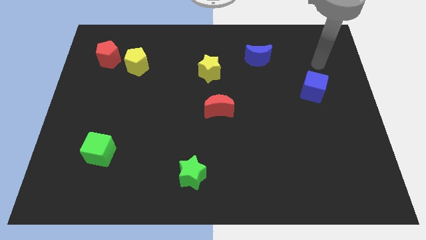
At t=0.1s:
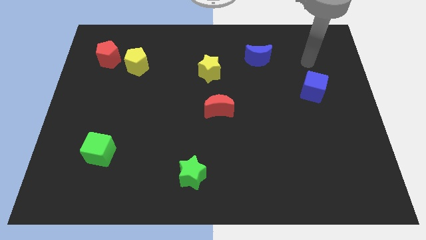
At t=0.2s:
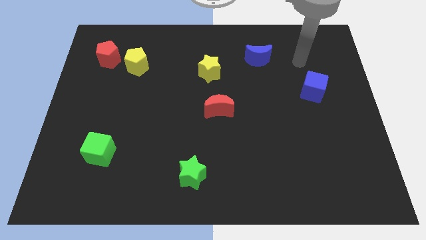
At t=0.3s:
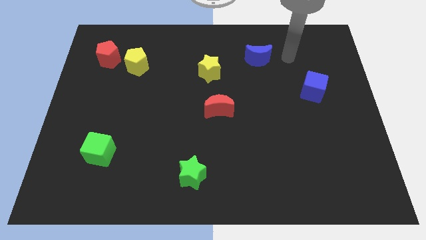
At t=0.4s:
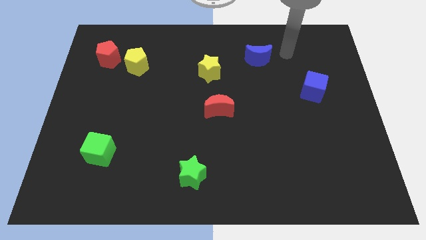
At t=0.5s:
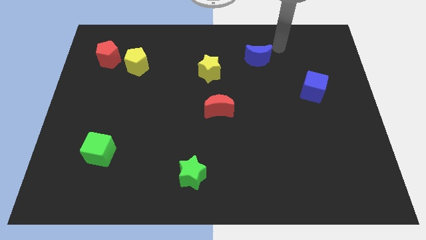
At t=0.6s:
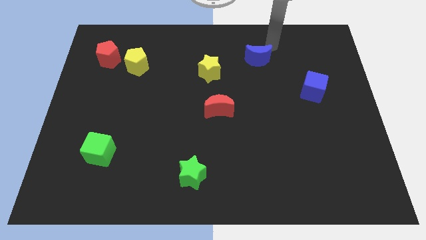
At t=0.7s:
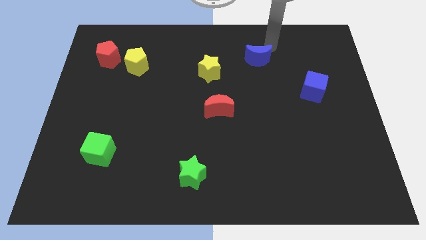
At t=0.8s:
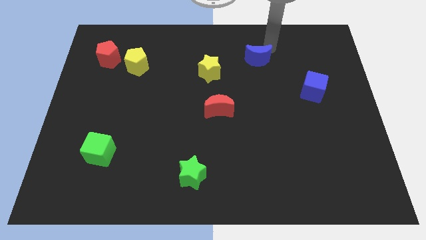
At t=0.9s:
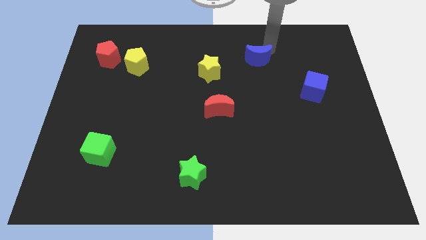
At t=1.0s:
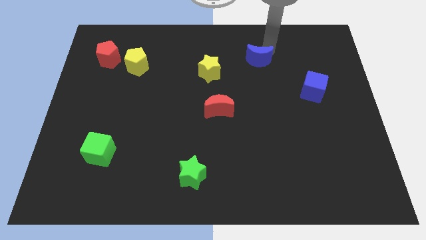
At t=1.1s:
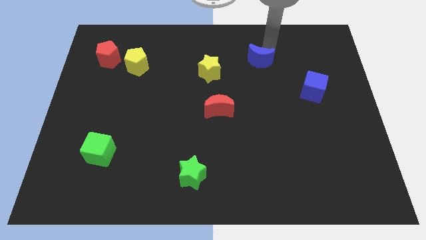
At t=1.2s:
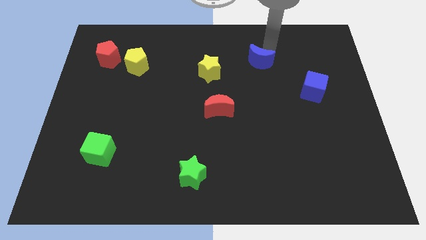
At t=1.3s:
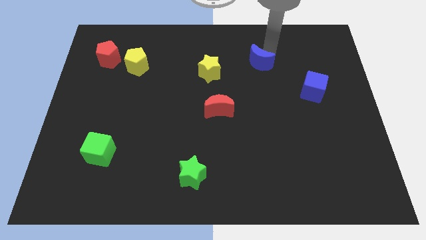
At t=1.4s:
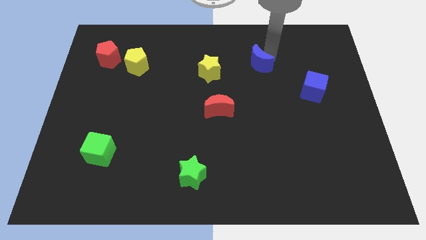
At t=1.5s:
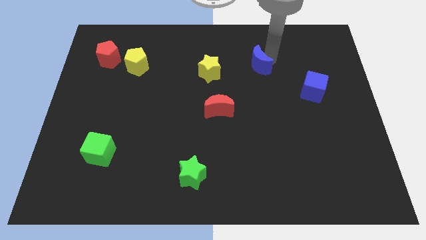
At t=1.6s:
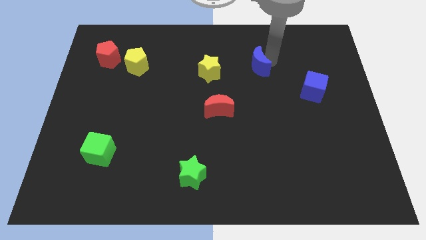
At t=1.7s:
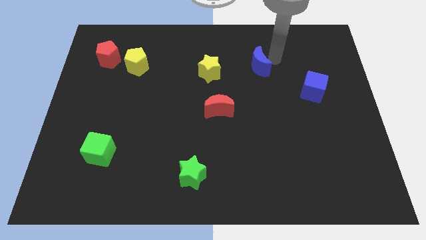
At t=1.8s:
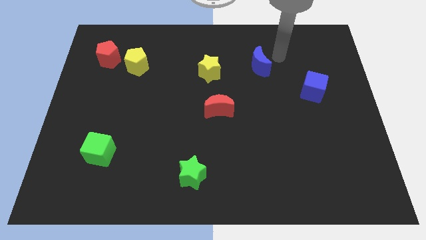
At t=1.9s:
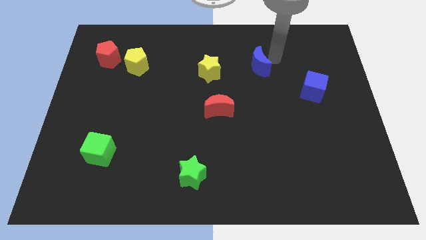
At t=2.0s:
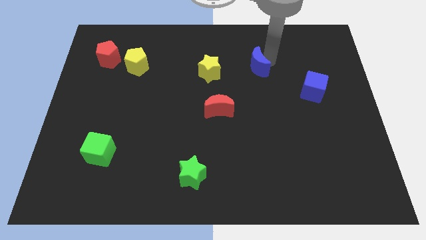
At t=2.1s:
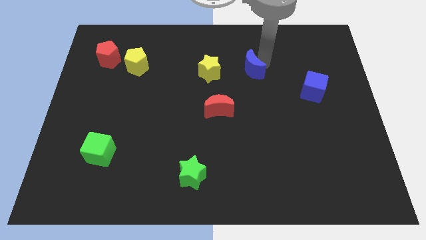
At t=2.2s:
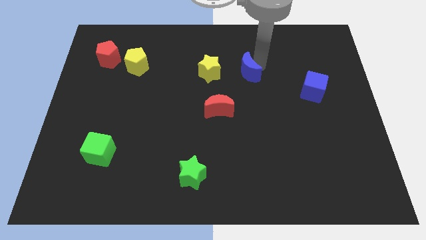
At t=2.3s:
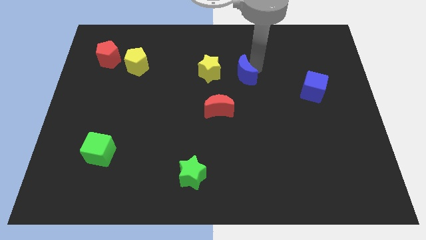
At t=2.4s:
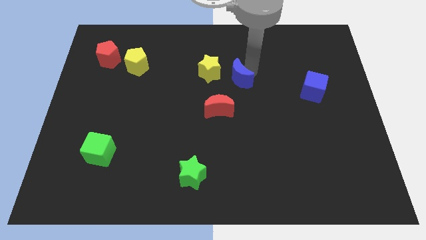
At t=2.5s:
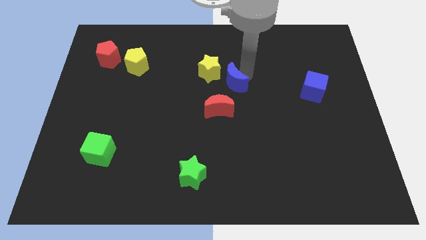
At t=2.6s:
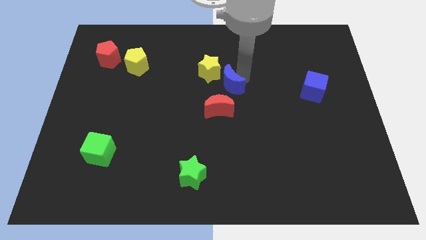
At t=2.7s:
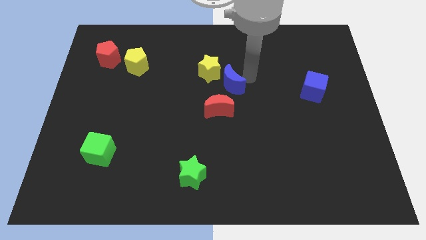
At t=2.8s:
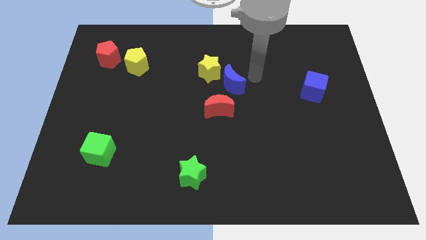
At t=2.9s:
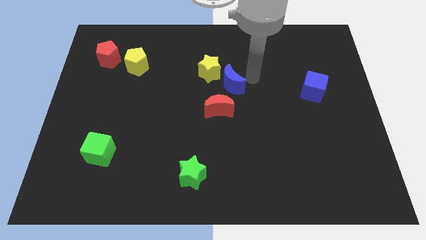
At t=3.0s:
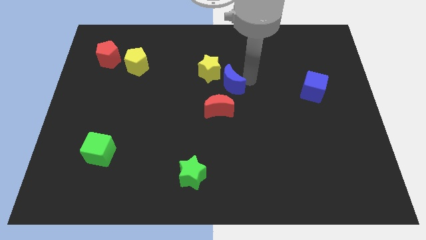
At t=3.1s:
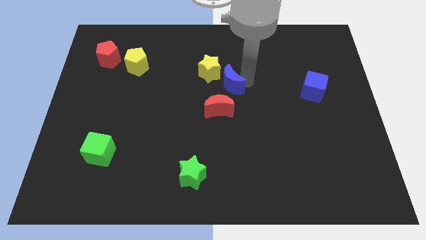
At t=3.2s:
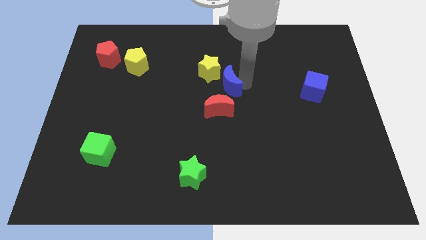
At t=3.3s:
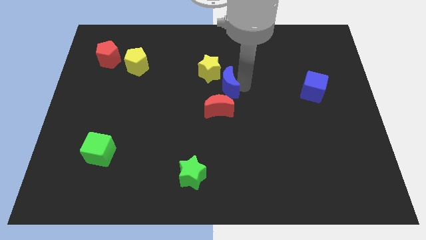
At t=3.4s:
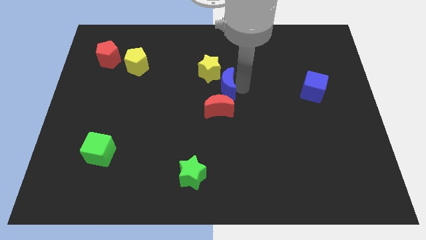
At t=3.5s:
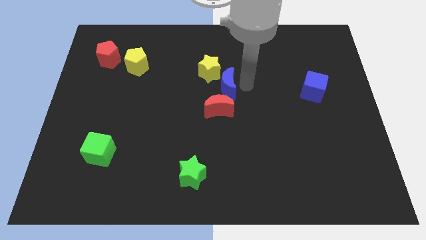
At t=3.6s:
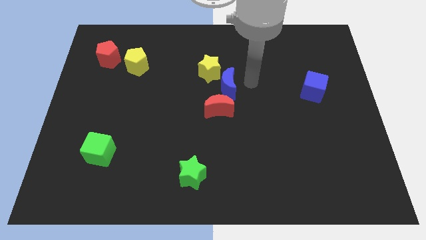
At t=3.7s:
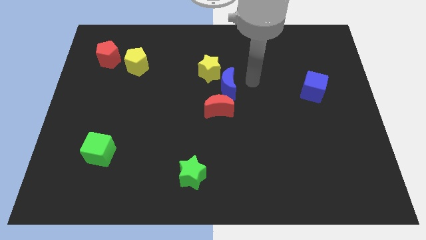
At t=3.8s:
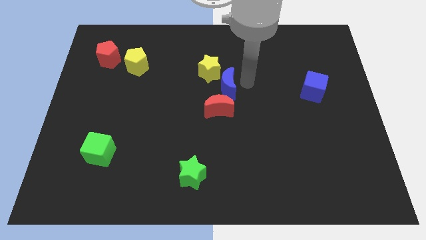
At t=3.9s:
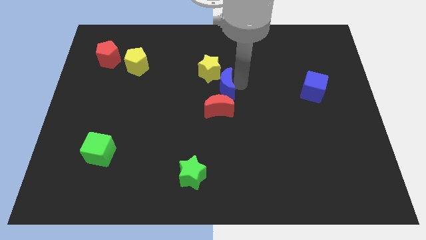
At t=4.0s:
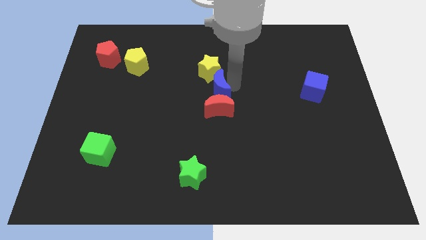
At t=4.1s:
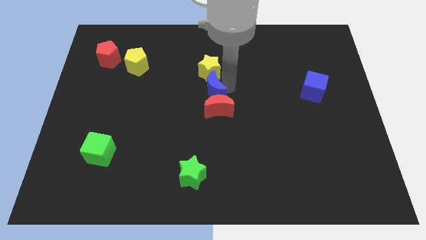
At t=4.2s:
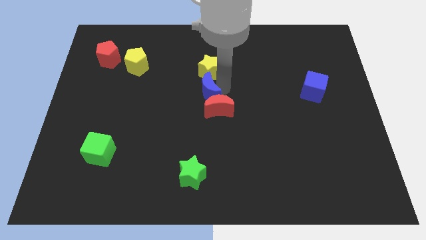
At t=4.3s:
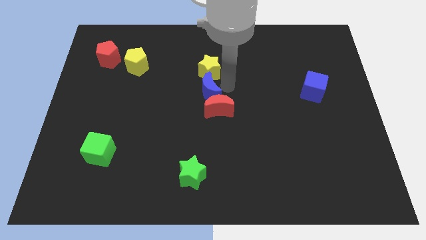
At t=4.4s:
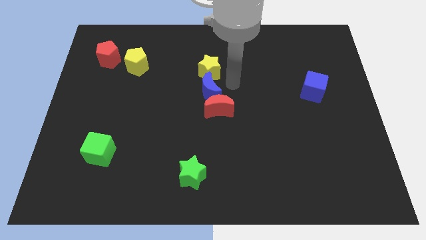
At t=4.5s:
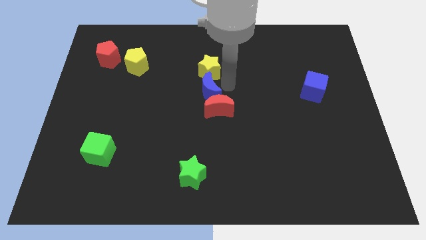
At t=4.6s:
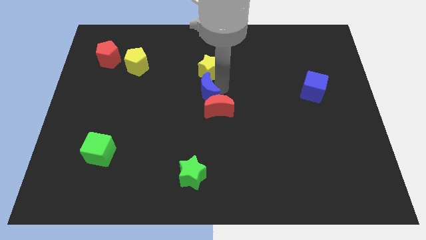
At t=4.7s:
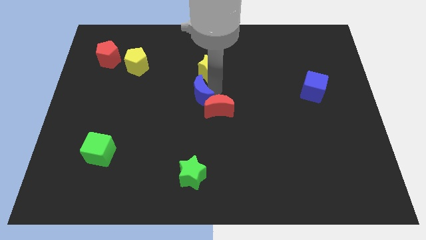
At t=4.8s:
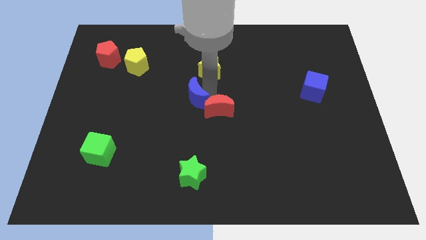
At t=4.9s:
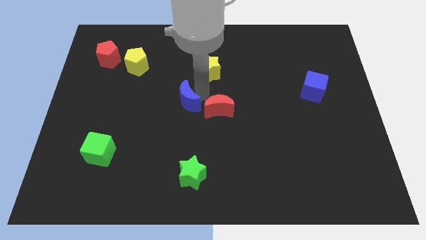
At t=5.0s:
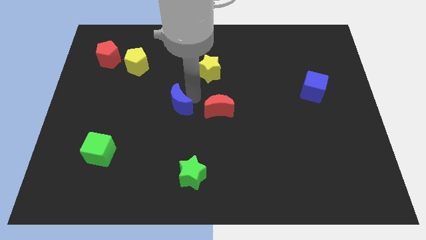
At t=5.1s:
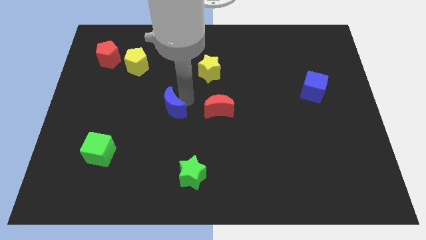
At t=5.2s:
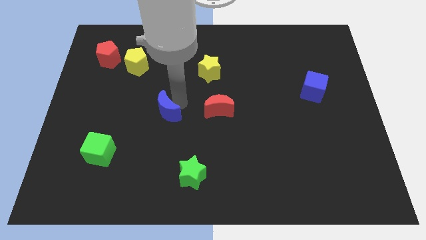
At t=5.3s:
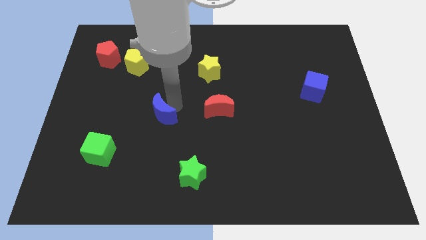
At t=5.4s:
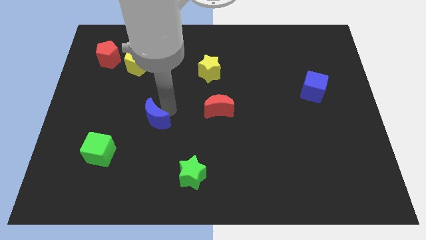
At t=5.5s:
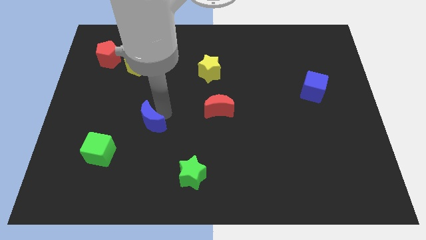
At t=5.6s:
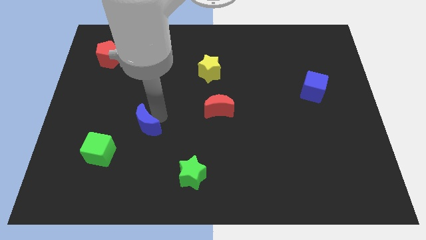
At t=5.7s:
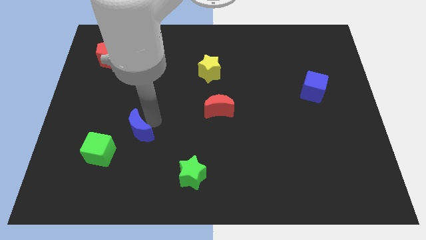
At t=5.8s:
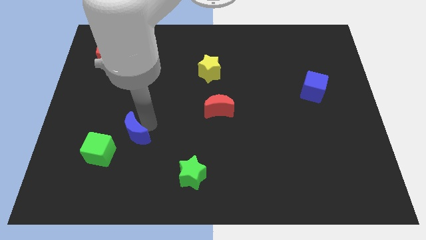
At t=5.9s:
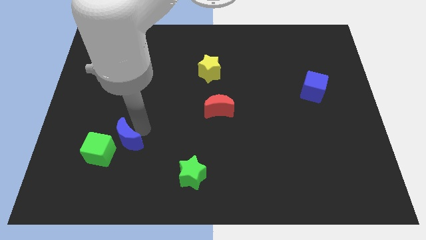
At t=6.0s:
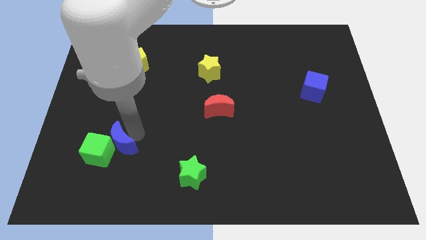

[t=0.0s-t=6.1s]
push the blue moon next to the green cube

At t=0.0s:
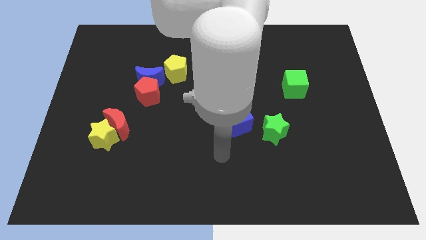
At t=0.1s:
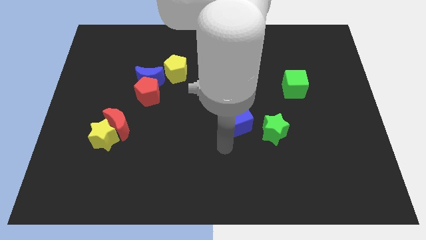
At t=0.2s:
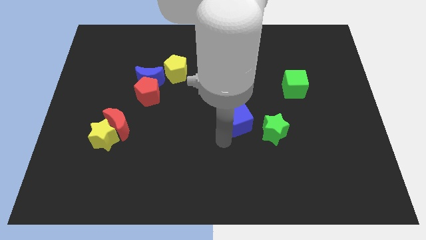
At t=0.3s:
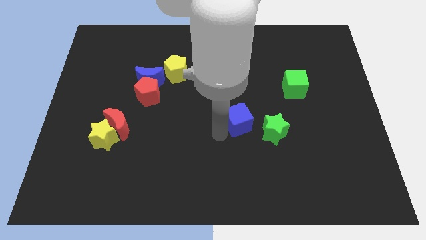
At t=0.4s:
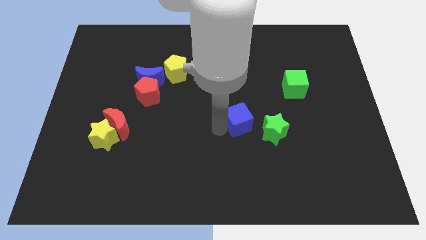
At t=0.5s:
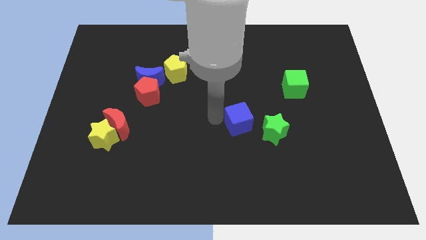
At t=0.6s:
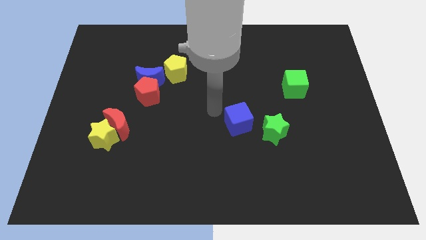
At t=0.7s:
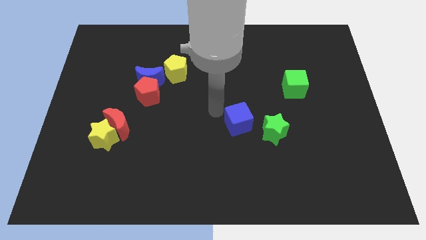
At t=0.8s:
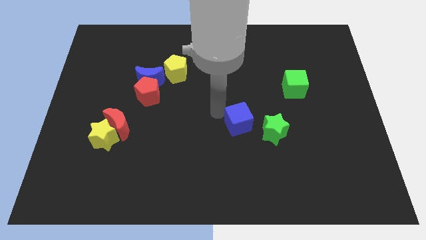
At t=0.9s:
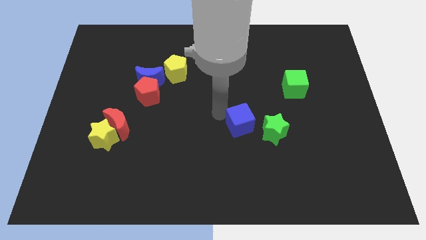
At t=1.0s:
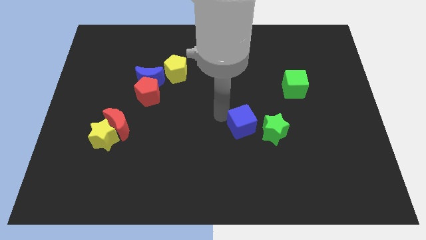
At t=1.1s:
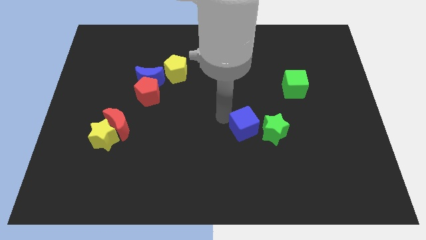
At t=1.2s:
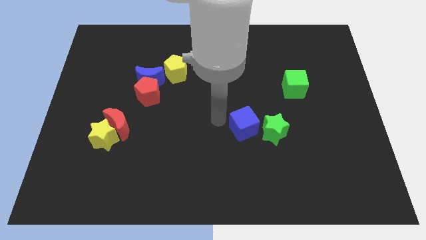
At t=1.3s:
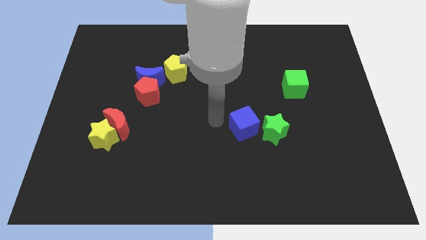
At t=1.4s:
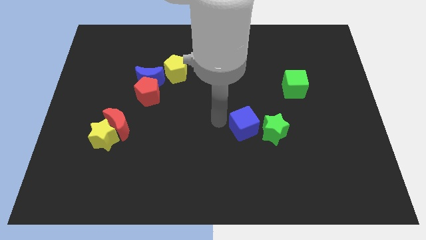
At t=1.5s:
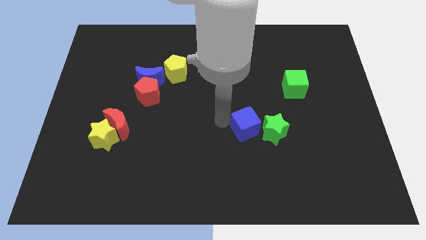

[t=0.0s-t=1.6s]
push the blue cube close to the green star
